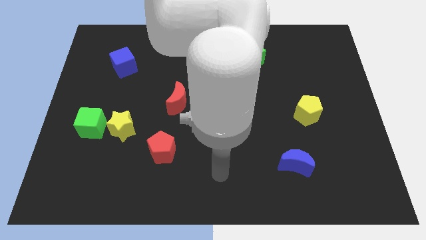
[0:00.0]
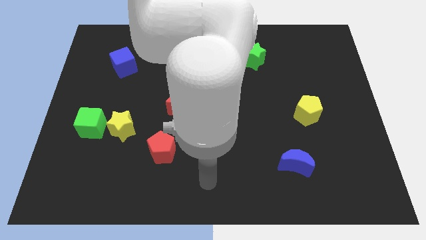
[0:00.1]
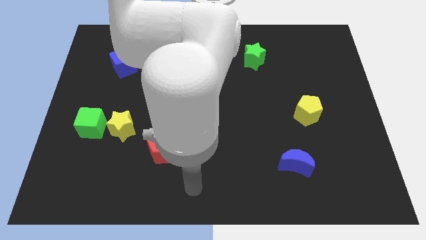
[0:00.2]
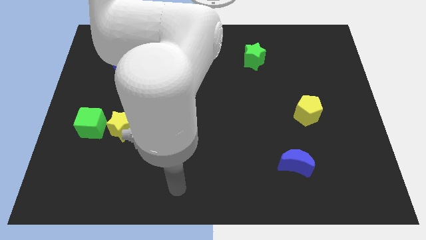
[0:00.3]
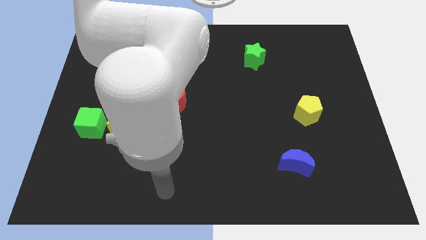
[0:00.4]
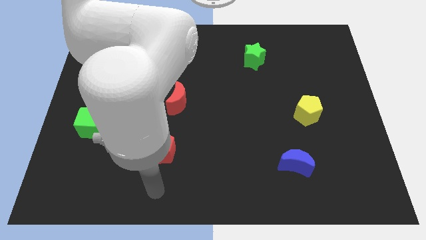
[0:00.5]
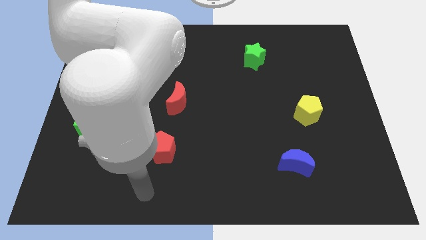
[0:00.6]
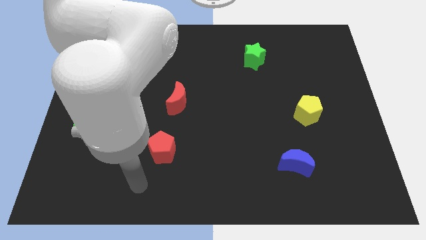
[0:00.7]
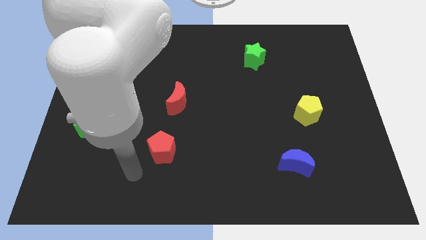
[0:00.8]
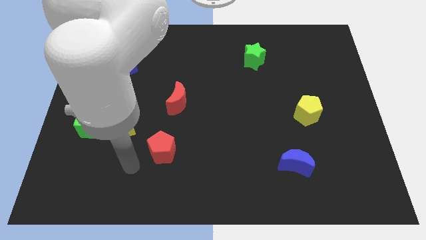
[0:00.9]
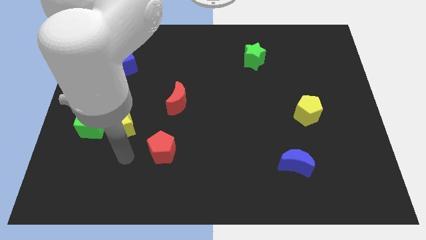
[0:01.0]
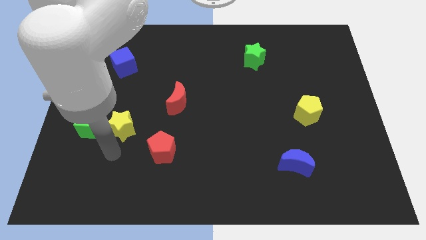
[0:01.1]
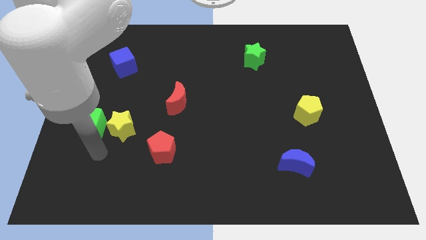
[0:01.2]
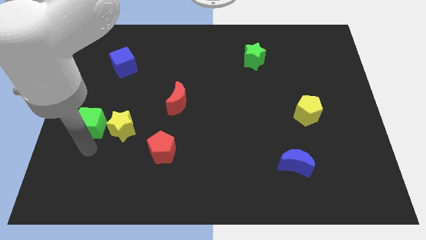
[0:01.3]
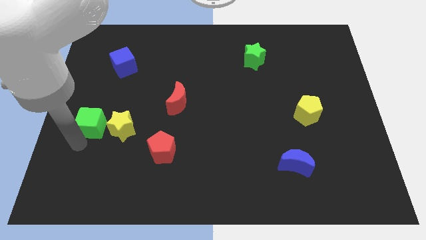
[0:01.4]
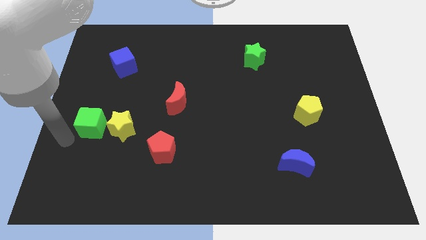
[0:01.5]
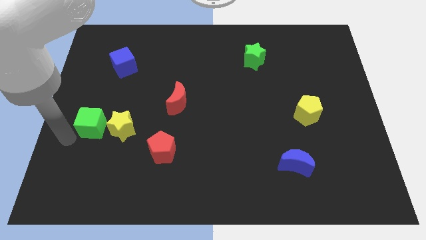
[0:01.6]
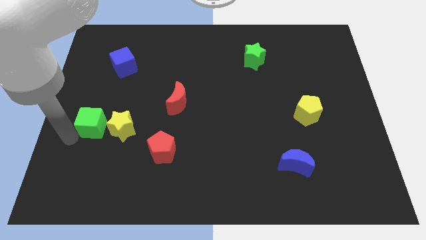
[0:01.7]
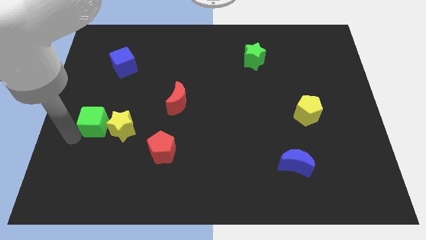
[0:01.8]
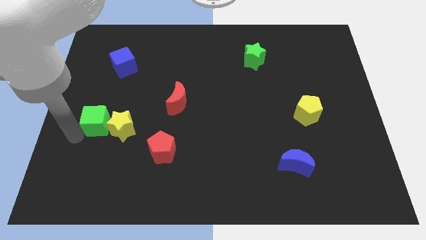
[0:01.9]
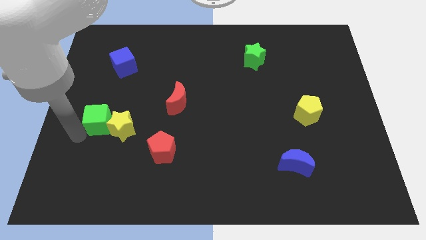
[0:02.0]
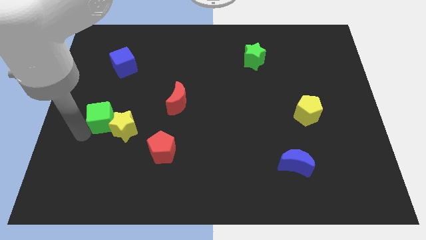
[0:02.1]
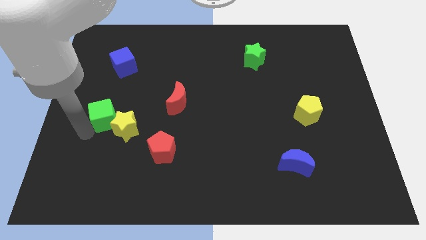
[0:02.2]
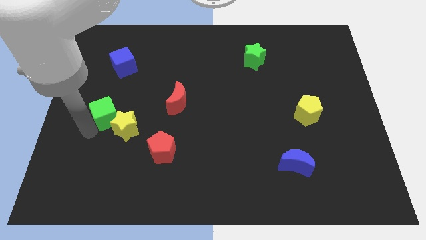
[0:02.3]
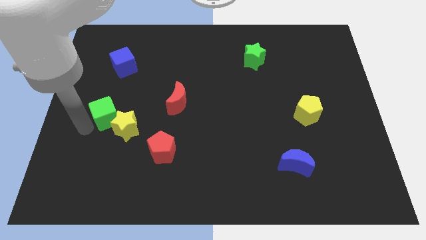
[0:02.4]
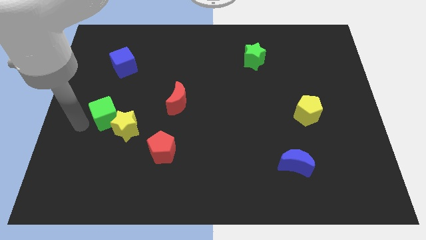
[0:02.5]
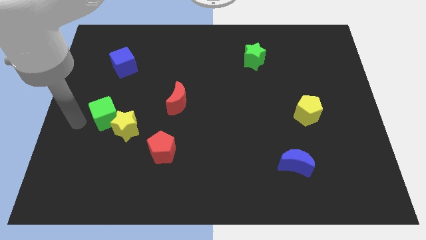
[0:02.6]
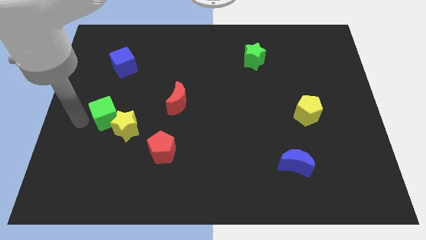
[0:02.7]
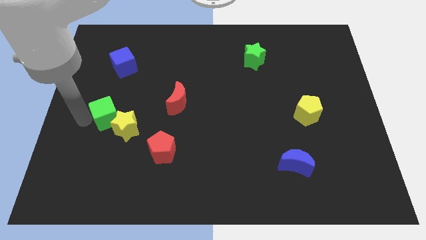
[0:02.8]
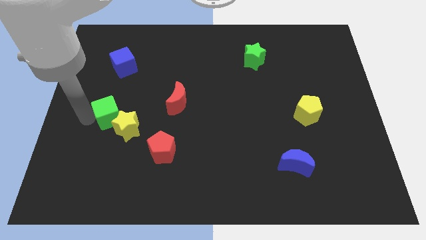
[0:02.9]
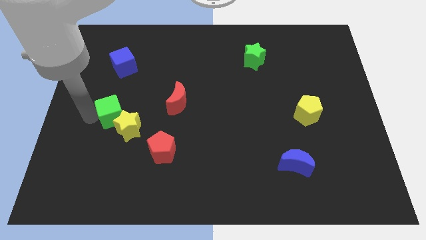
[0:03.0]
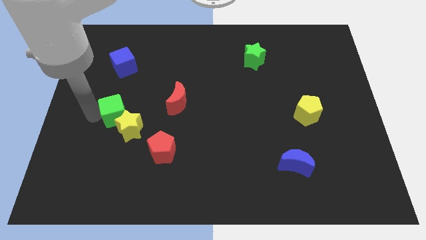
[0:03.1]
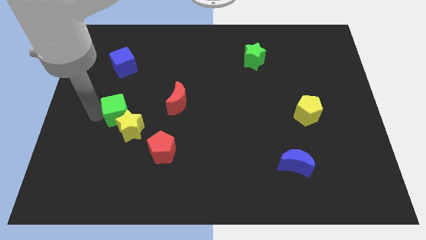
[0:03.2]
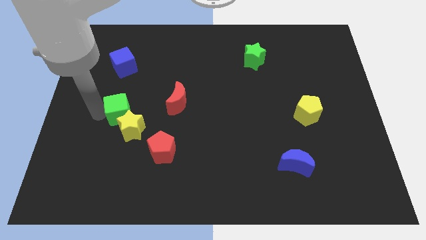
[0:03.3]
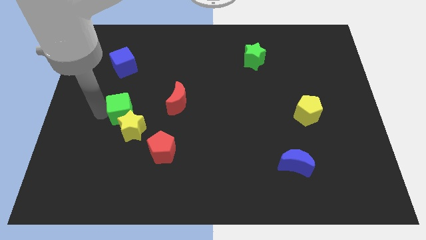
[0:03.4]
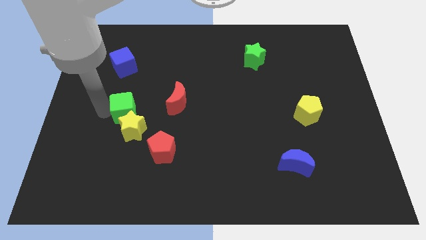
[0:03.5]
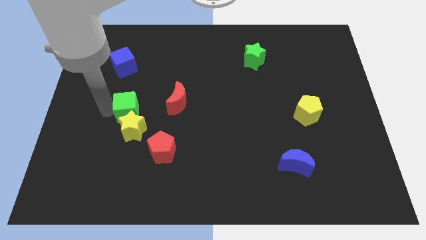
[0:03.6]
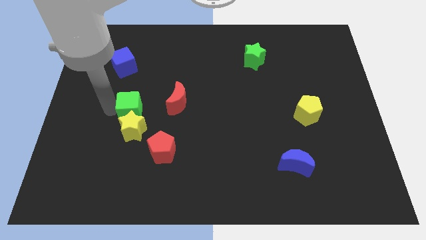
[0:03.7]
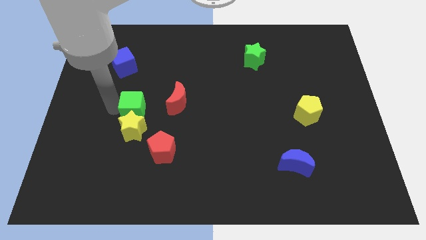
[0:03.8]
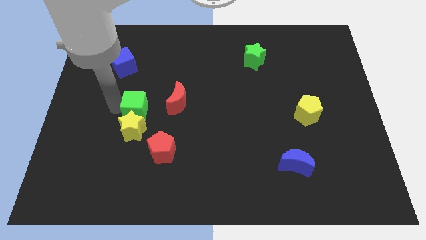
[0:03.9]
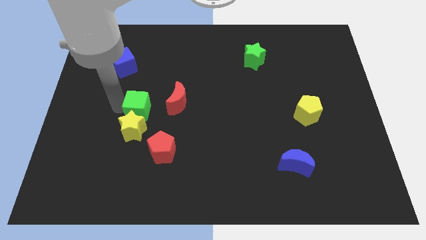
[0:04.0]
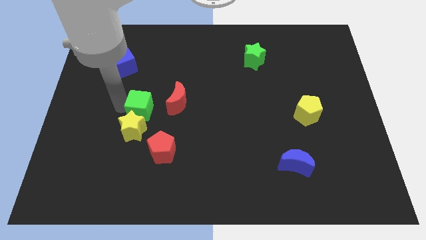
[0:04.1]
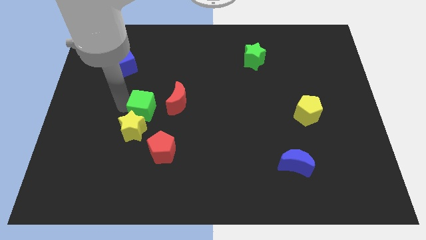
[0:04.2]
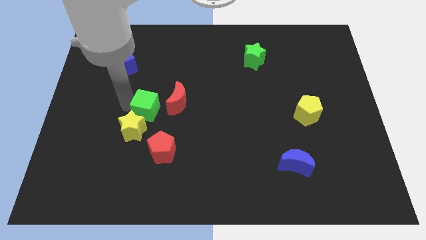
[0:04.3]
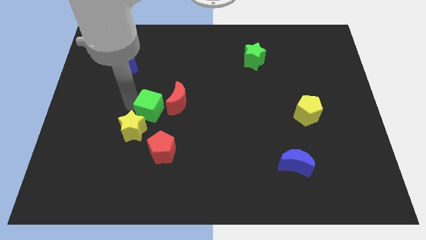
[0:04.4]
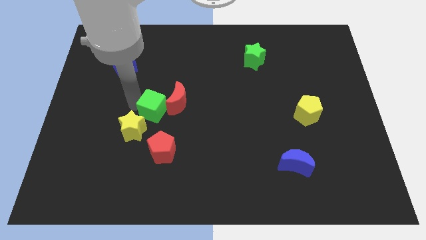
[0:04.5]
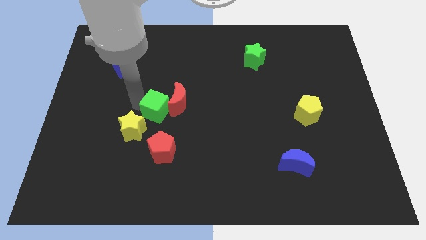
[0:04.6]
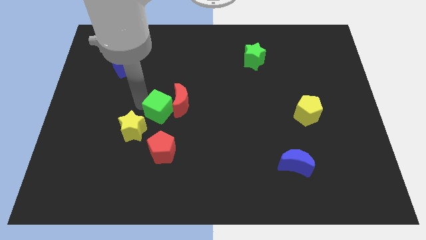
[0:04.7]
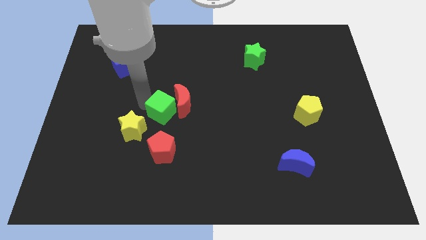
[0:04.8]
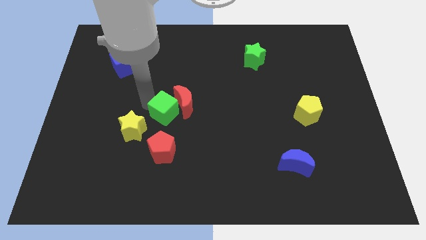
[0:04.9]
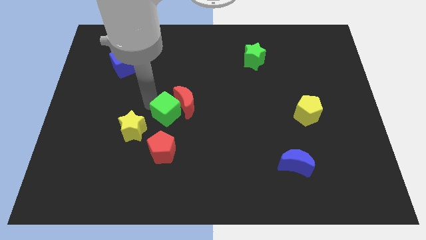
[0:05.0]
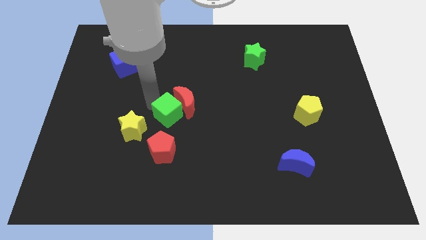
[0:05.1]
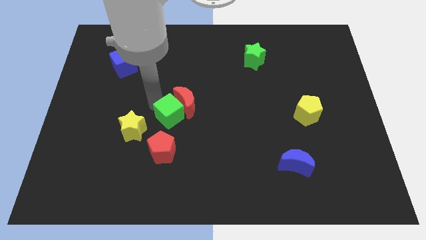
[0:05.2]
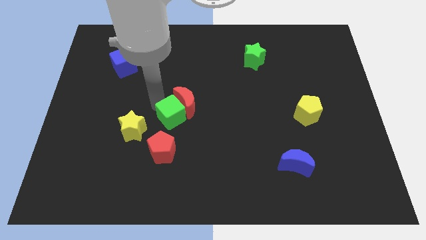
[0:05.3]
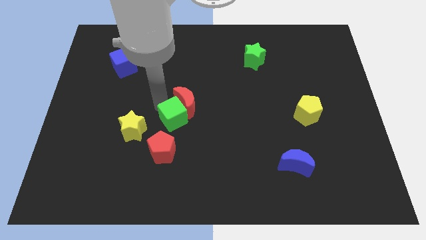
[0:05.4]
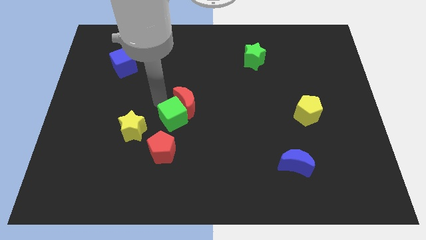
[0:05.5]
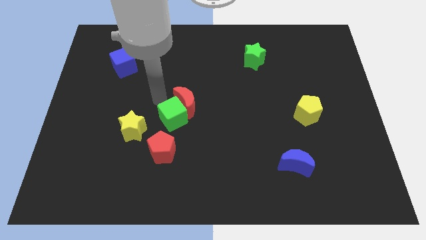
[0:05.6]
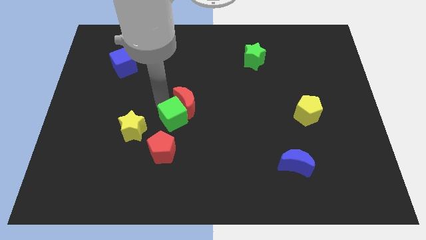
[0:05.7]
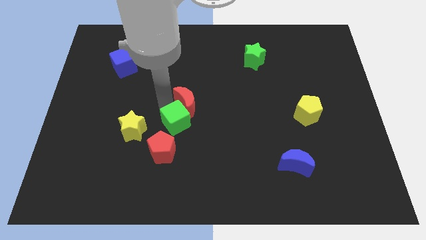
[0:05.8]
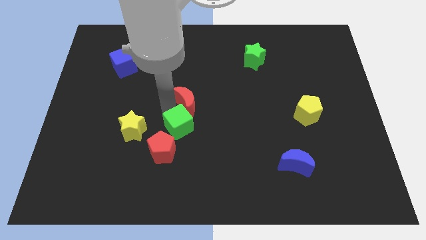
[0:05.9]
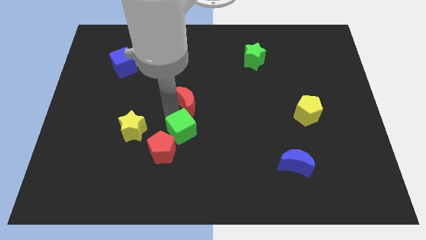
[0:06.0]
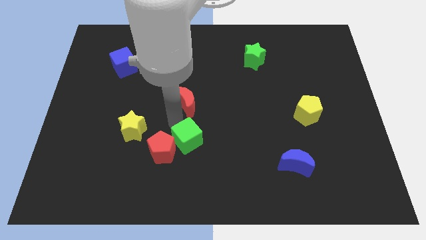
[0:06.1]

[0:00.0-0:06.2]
slide the green cube just right of the red pentagon

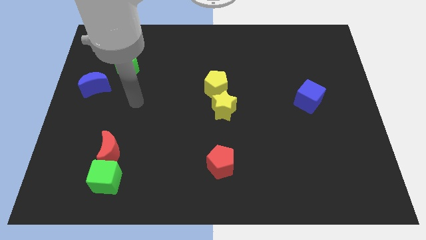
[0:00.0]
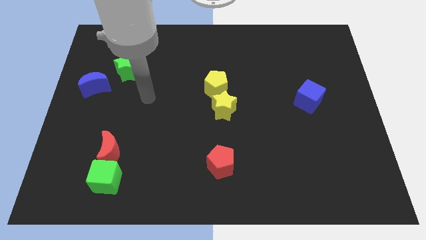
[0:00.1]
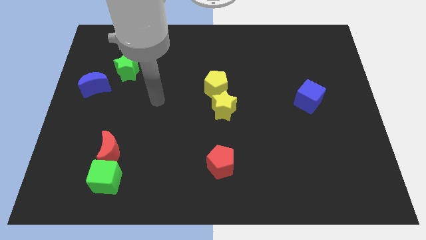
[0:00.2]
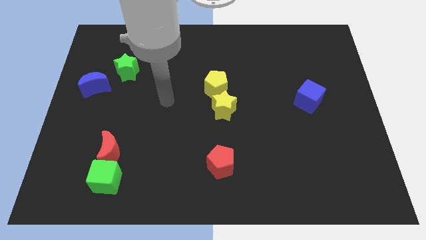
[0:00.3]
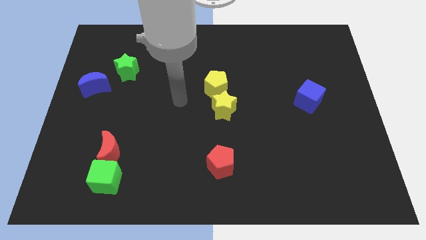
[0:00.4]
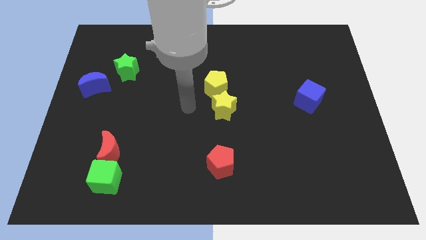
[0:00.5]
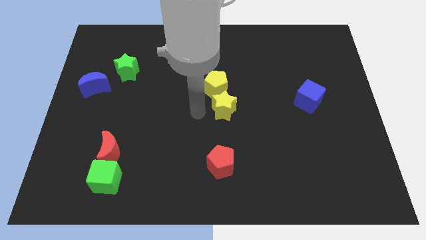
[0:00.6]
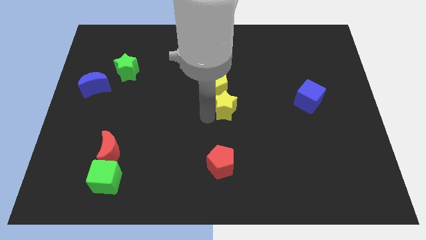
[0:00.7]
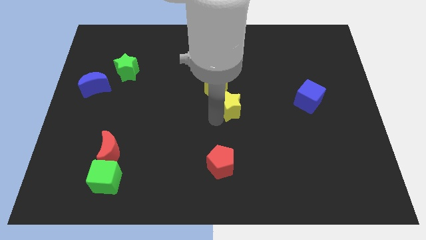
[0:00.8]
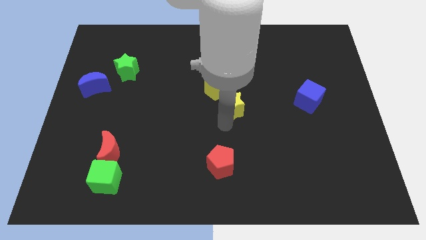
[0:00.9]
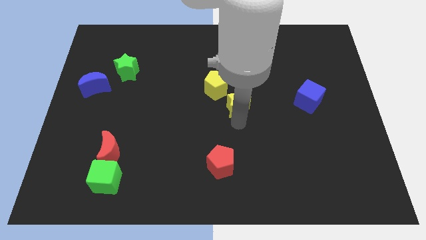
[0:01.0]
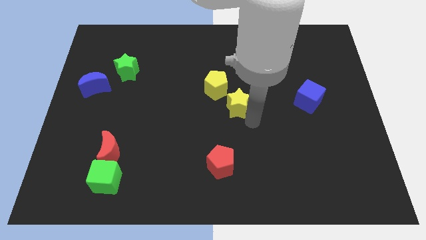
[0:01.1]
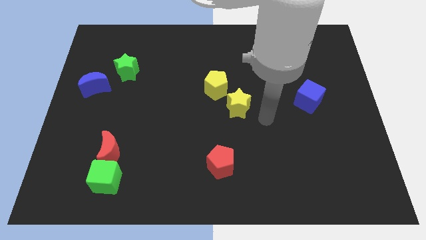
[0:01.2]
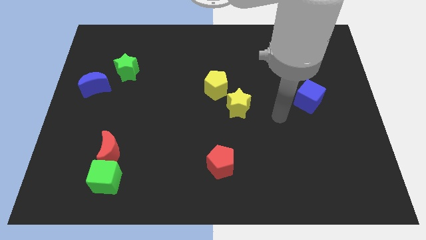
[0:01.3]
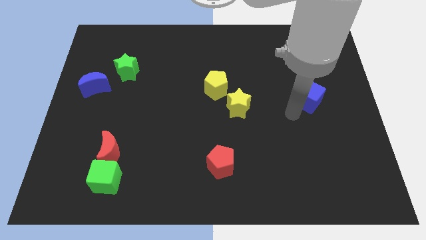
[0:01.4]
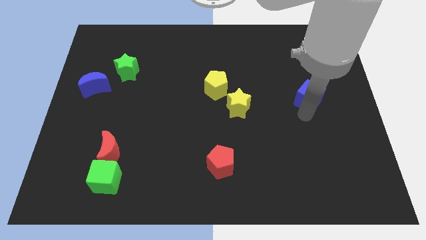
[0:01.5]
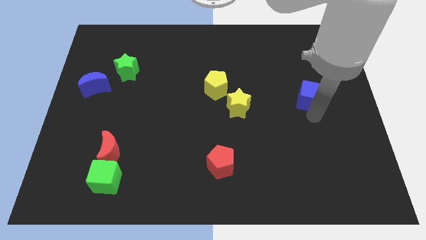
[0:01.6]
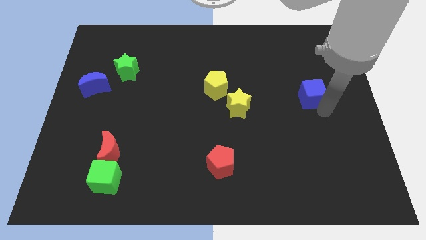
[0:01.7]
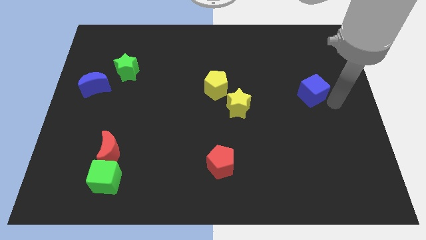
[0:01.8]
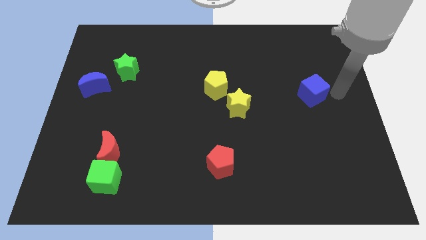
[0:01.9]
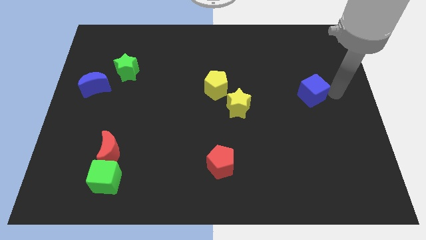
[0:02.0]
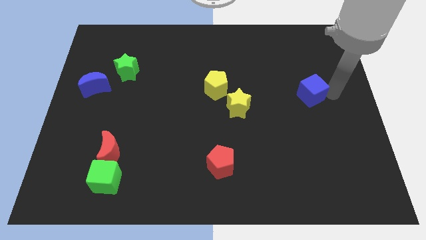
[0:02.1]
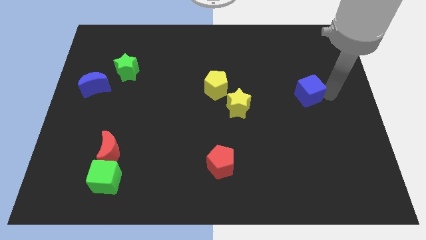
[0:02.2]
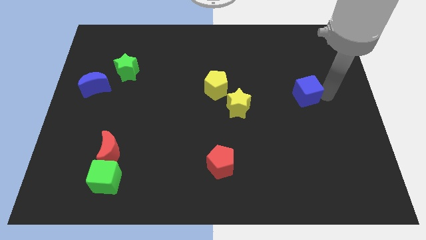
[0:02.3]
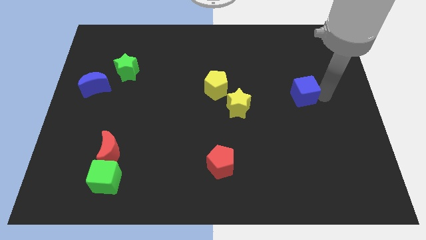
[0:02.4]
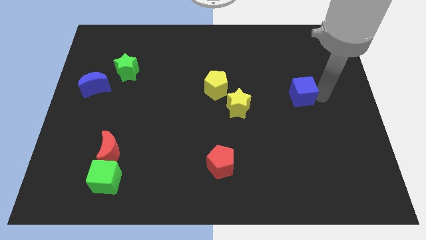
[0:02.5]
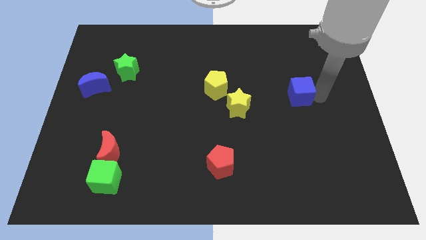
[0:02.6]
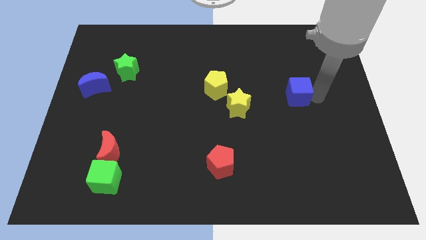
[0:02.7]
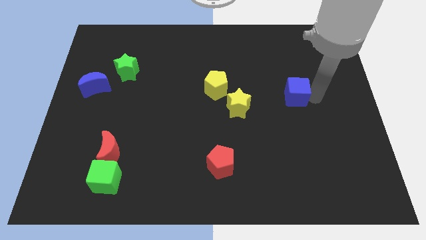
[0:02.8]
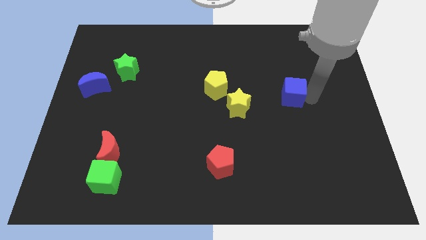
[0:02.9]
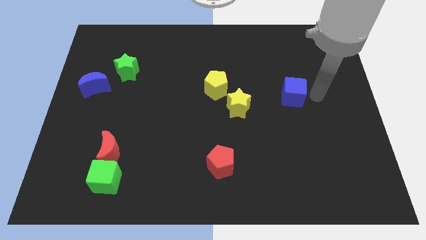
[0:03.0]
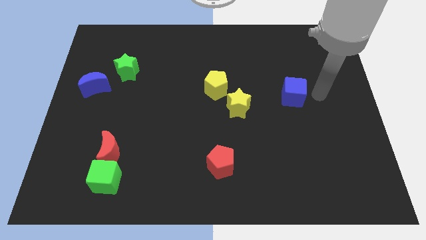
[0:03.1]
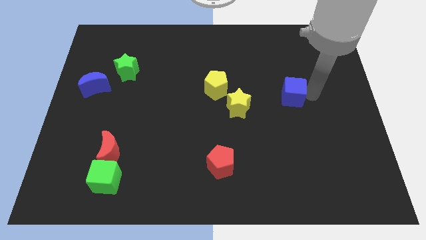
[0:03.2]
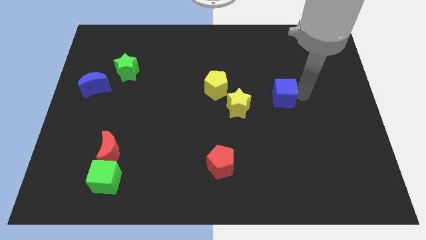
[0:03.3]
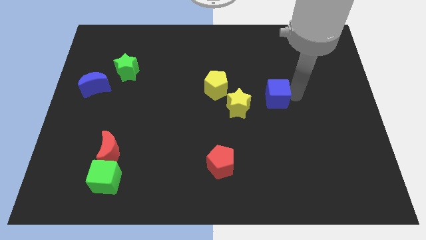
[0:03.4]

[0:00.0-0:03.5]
put the blue cube to the top right side of the yellow star
